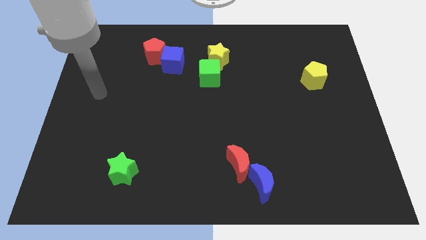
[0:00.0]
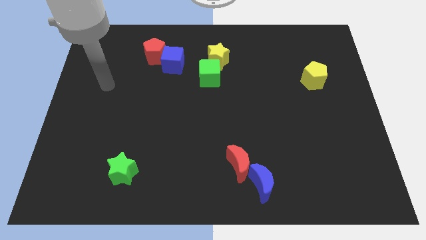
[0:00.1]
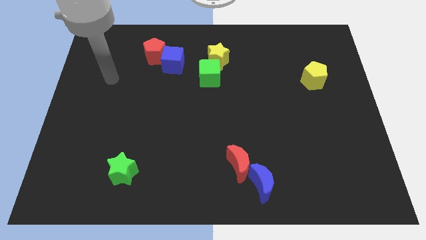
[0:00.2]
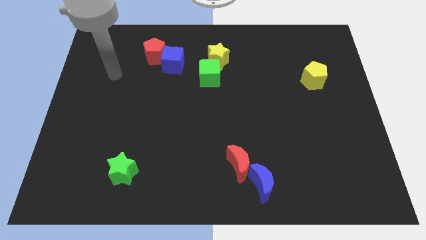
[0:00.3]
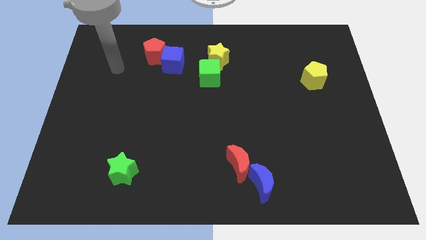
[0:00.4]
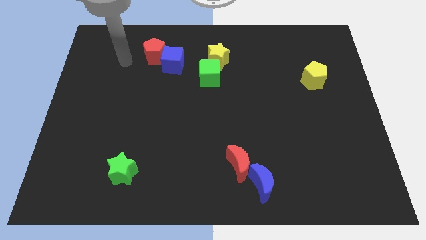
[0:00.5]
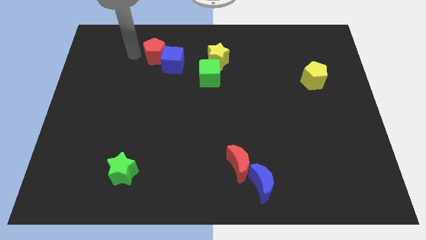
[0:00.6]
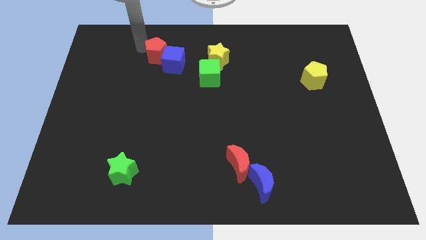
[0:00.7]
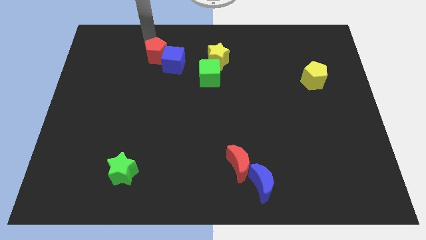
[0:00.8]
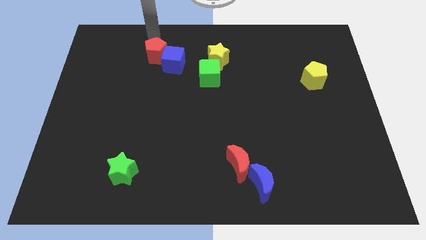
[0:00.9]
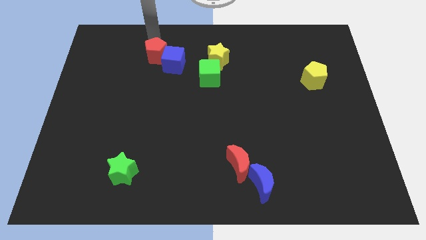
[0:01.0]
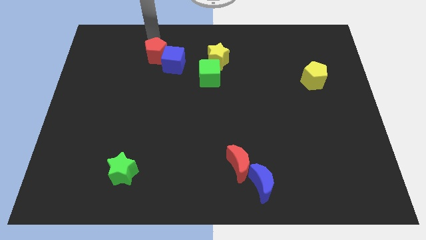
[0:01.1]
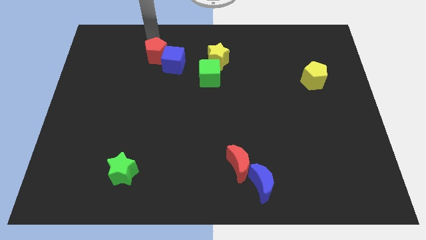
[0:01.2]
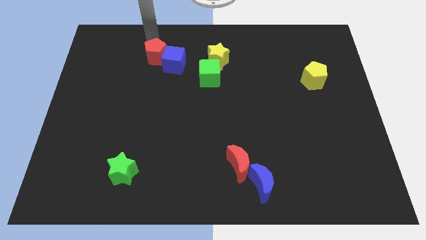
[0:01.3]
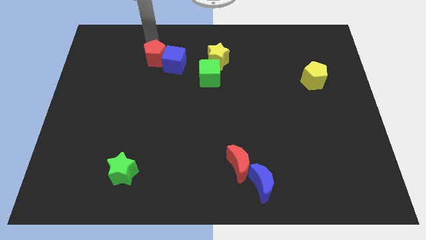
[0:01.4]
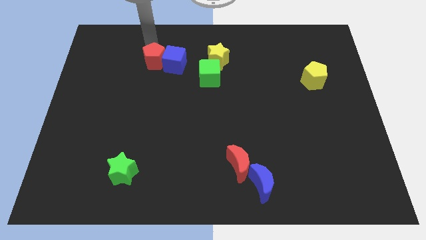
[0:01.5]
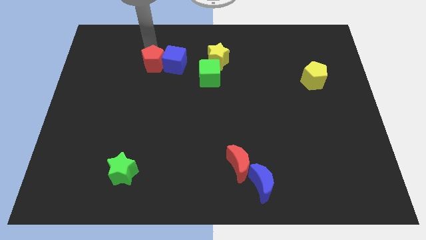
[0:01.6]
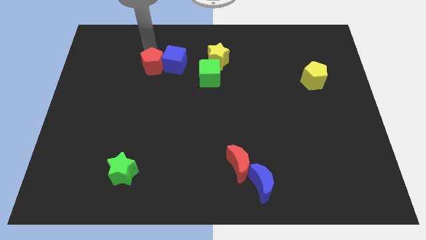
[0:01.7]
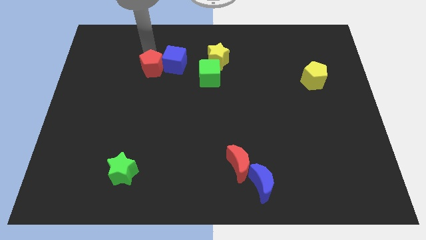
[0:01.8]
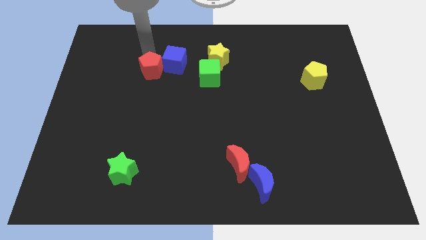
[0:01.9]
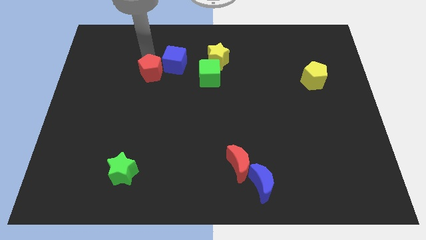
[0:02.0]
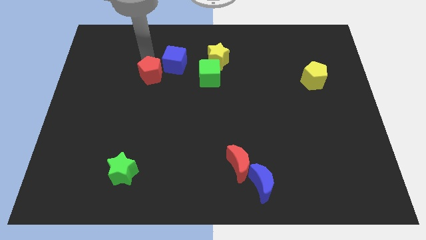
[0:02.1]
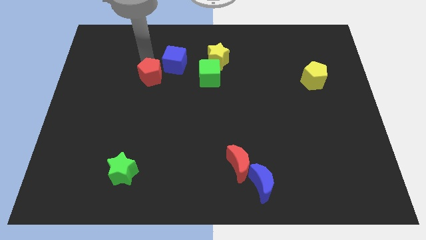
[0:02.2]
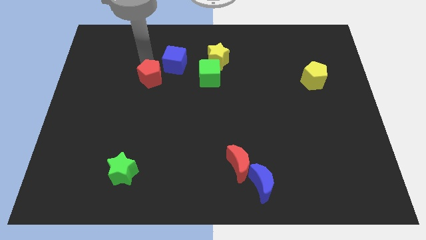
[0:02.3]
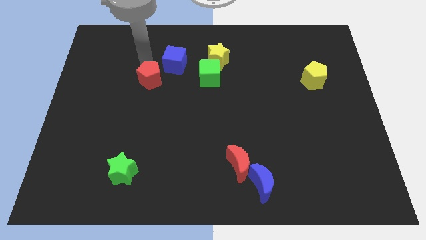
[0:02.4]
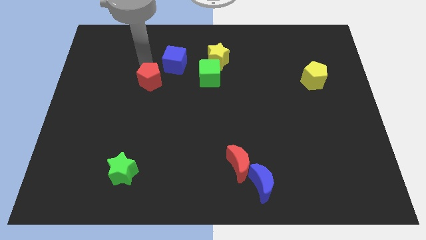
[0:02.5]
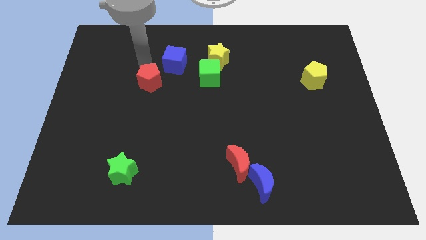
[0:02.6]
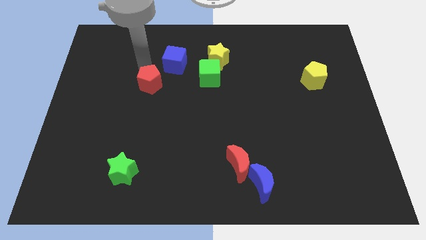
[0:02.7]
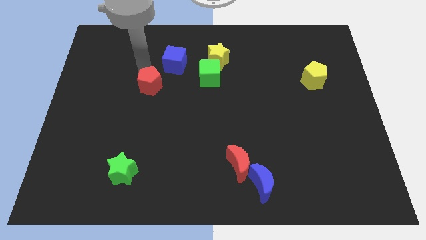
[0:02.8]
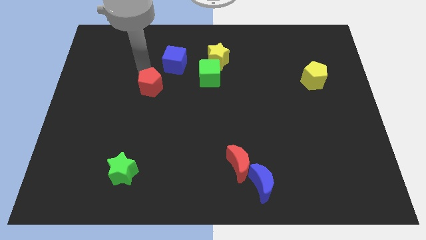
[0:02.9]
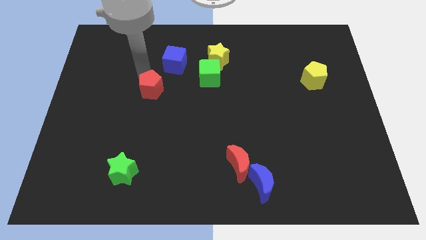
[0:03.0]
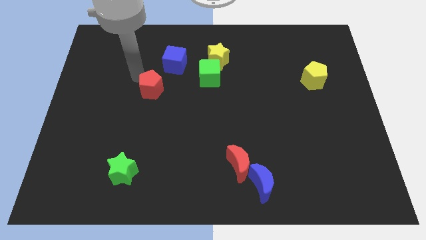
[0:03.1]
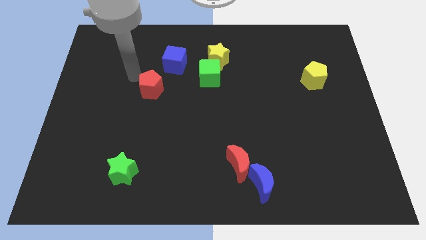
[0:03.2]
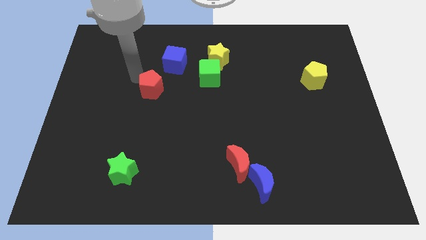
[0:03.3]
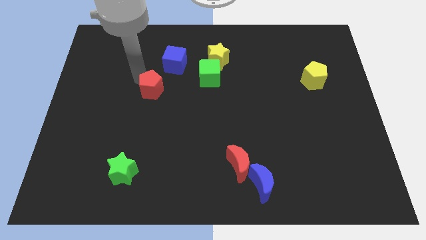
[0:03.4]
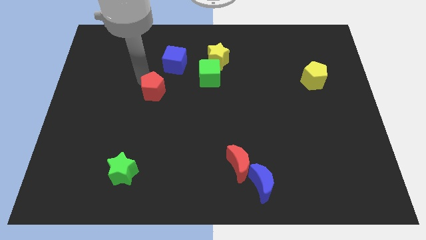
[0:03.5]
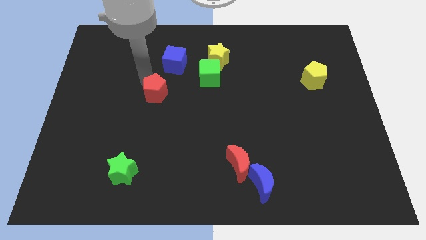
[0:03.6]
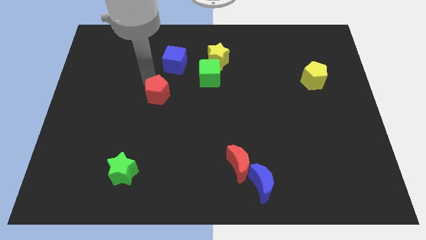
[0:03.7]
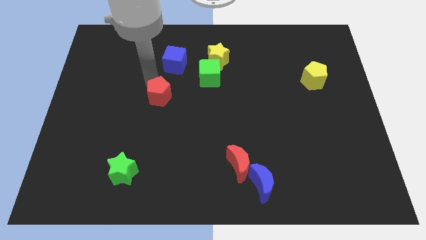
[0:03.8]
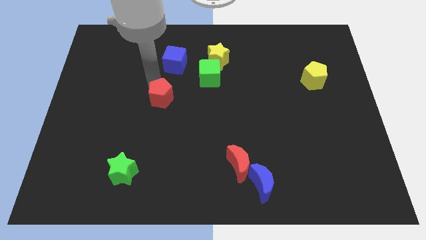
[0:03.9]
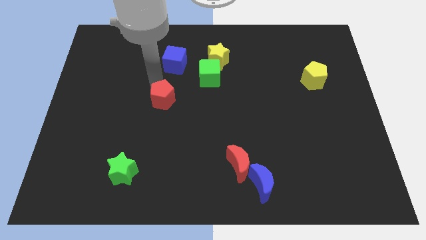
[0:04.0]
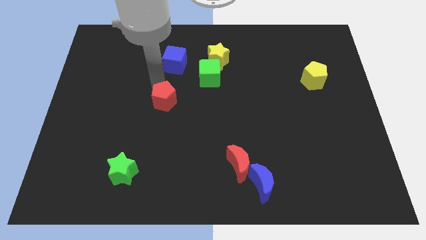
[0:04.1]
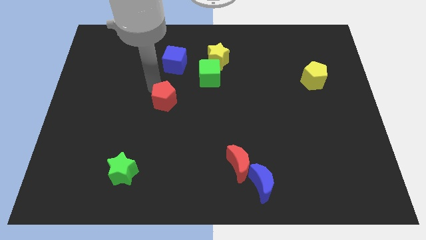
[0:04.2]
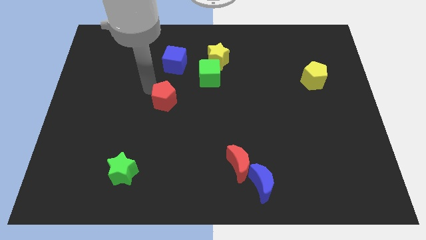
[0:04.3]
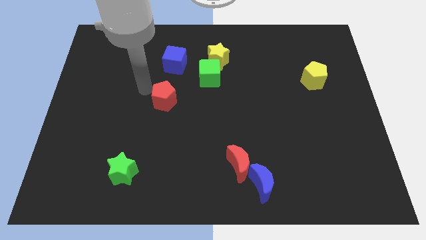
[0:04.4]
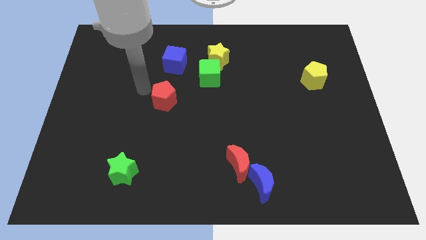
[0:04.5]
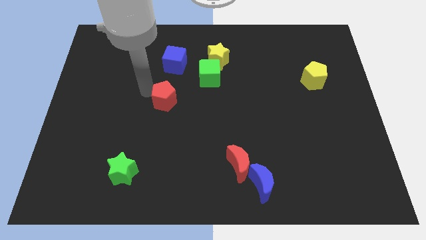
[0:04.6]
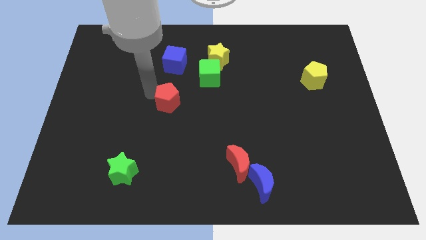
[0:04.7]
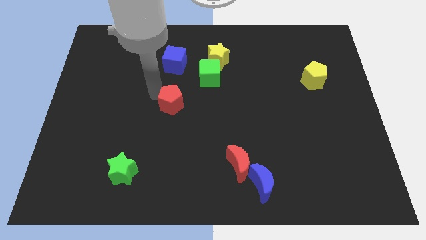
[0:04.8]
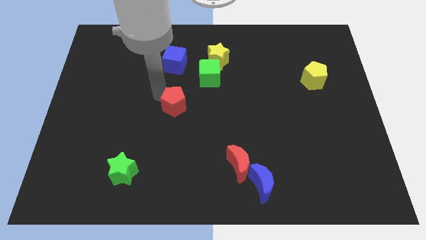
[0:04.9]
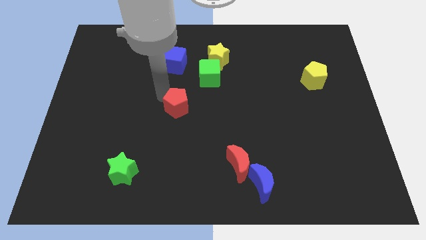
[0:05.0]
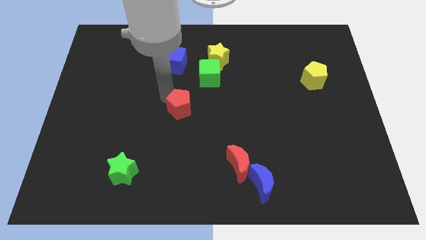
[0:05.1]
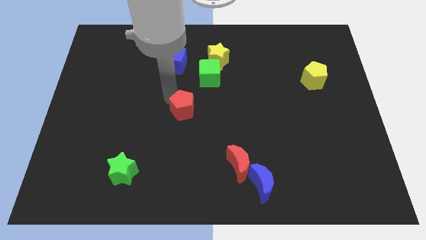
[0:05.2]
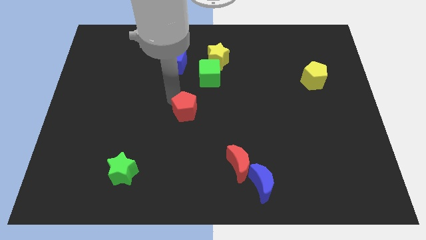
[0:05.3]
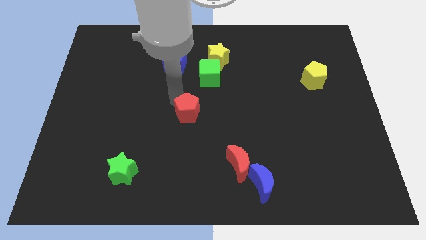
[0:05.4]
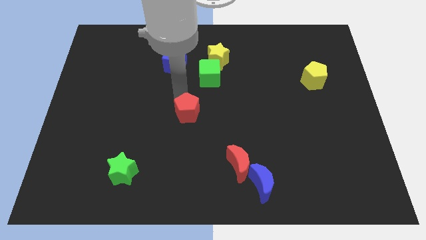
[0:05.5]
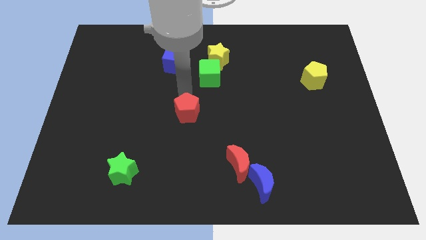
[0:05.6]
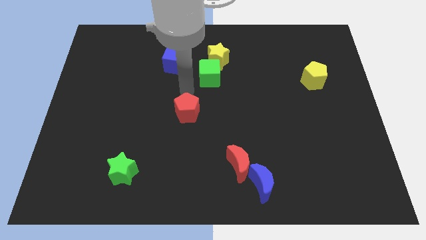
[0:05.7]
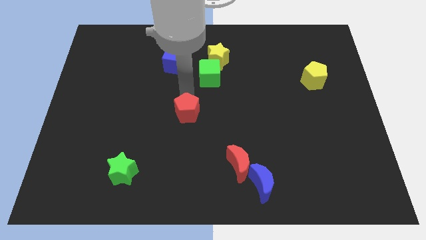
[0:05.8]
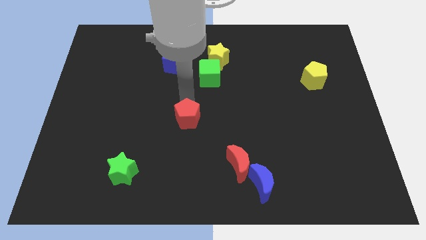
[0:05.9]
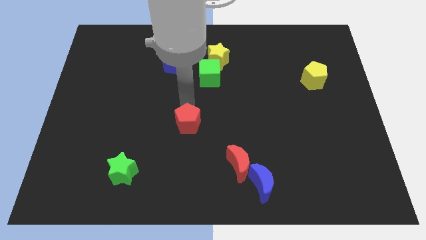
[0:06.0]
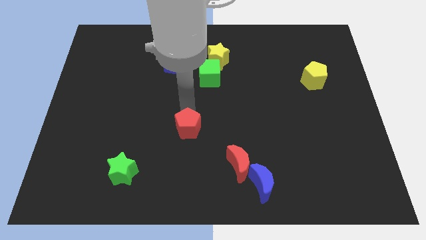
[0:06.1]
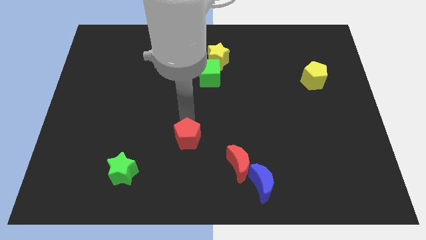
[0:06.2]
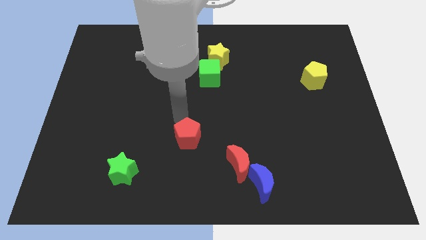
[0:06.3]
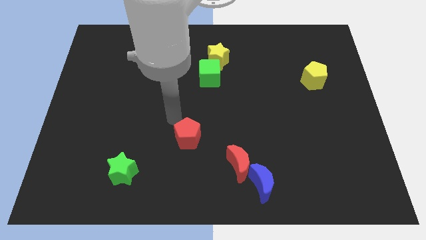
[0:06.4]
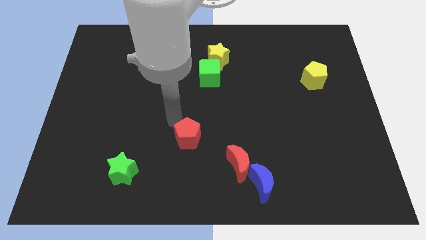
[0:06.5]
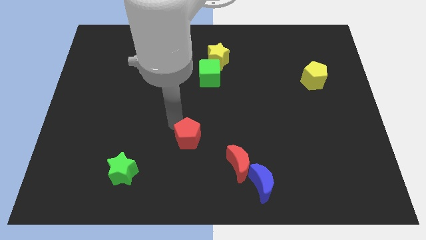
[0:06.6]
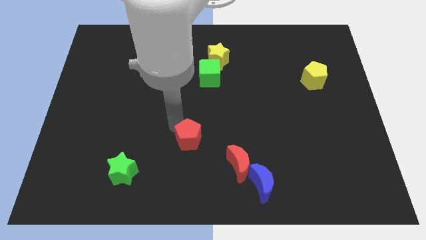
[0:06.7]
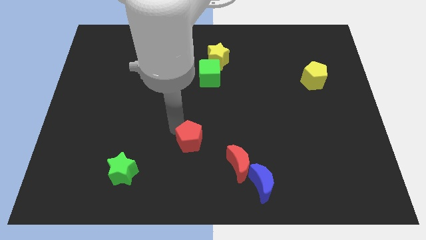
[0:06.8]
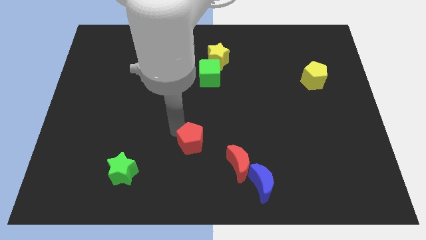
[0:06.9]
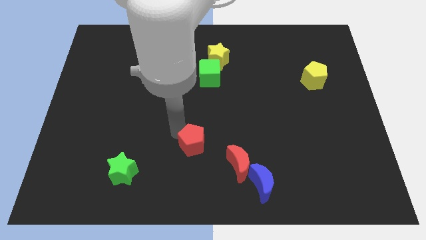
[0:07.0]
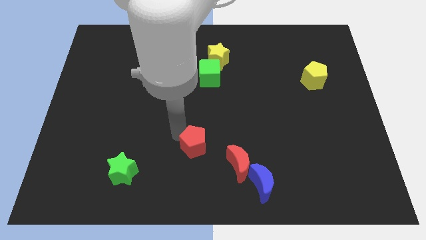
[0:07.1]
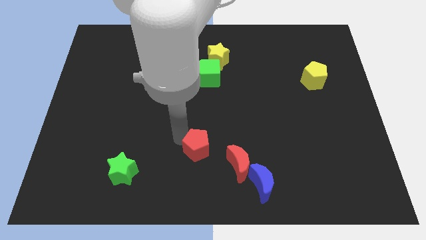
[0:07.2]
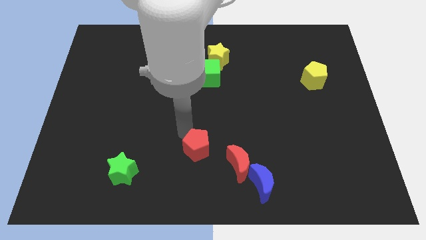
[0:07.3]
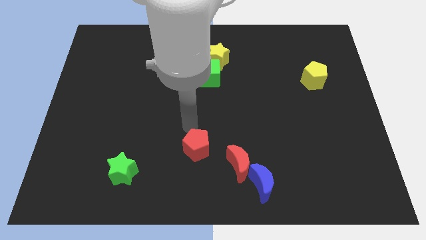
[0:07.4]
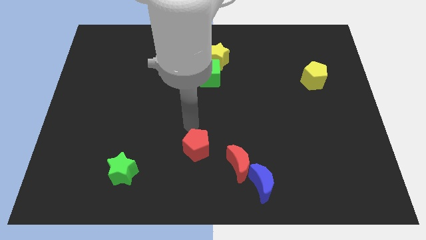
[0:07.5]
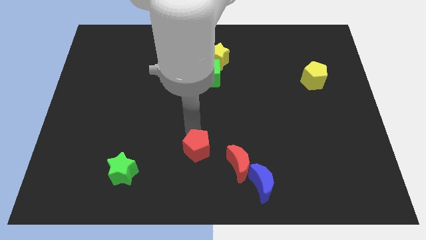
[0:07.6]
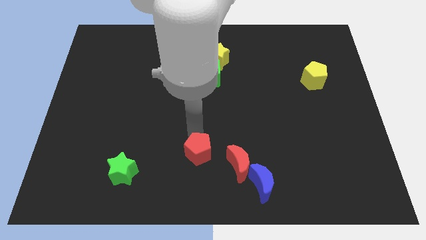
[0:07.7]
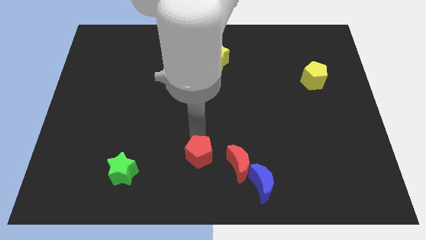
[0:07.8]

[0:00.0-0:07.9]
move the red pentagon to the bottom
